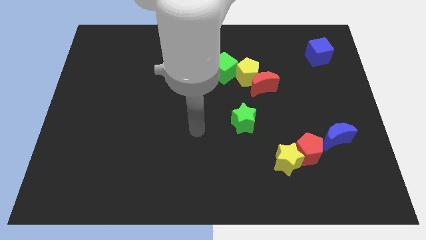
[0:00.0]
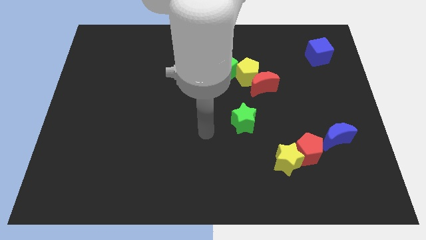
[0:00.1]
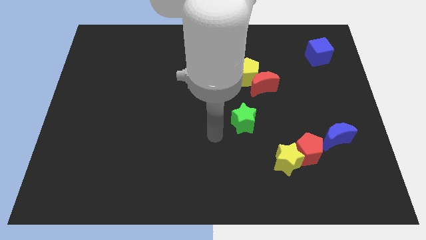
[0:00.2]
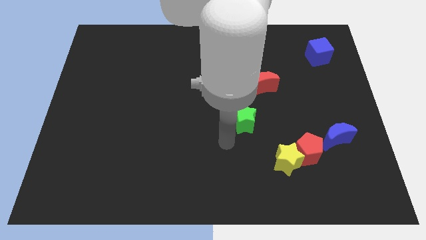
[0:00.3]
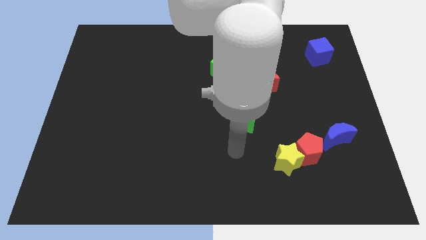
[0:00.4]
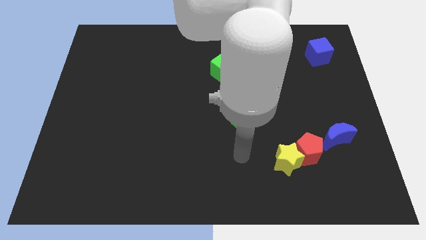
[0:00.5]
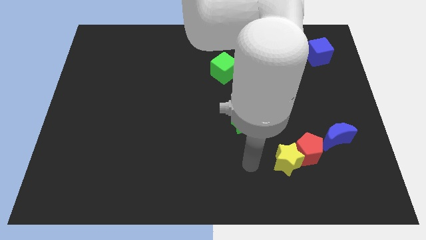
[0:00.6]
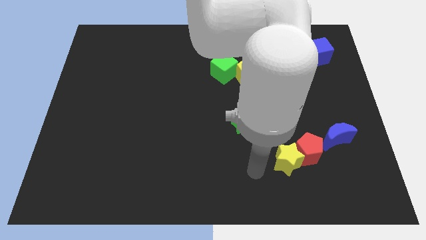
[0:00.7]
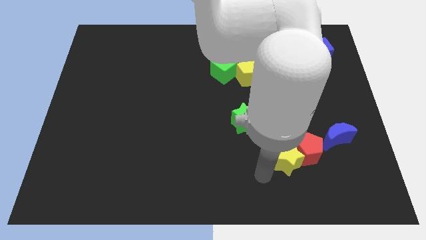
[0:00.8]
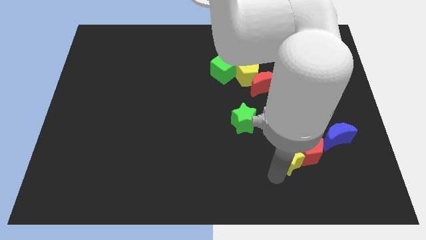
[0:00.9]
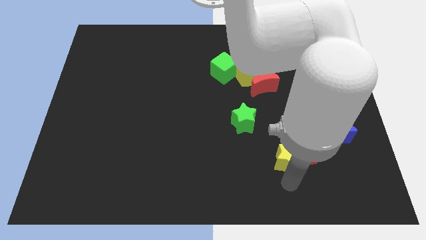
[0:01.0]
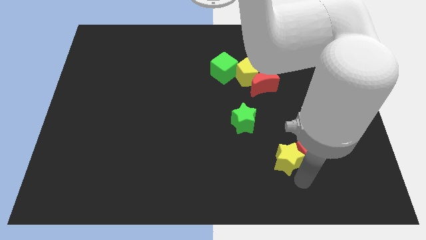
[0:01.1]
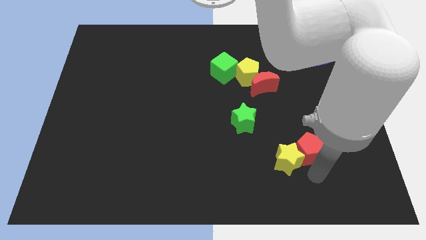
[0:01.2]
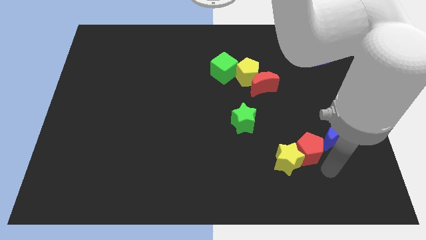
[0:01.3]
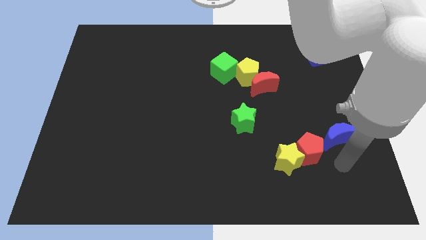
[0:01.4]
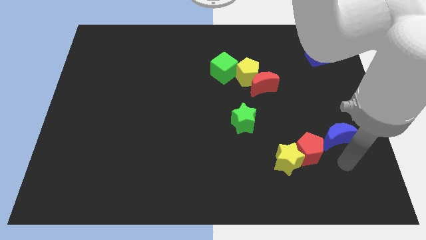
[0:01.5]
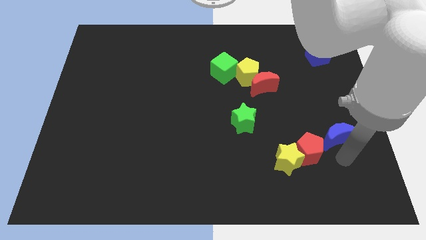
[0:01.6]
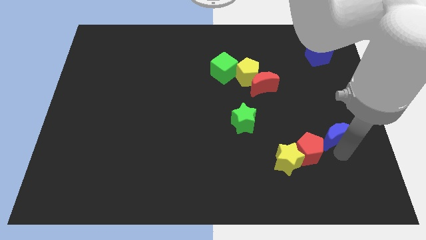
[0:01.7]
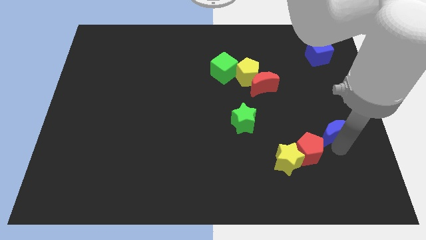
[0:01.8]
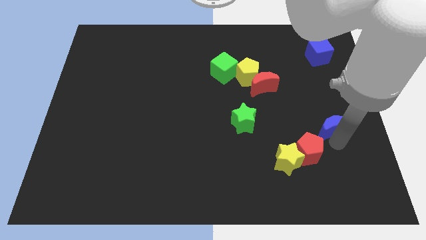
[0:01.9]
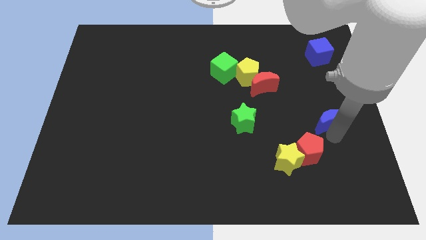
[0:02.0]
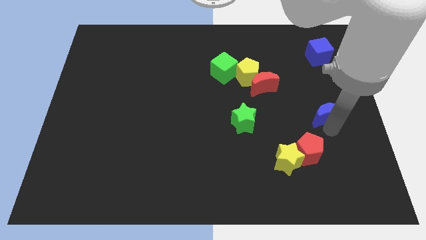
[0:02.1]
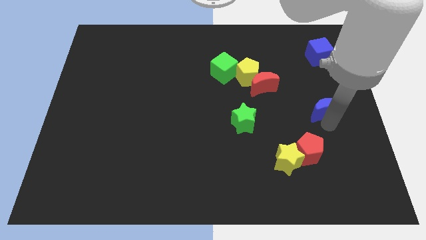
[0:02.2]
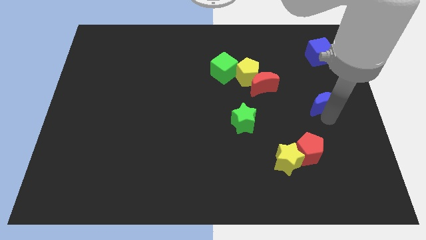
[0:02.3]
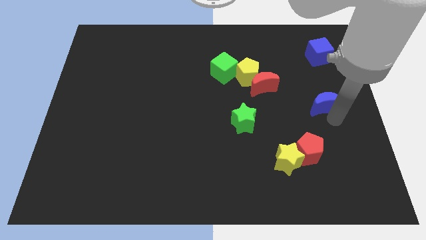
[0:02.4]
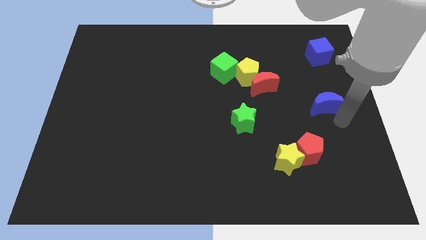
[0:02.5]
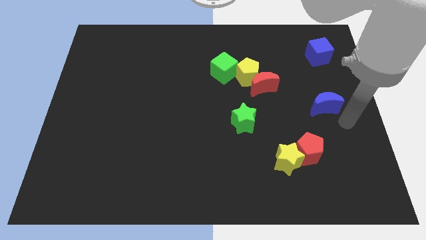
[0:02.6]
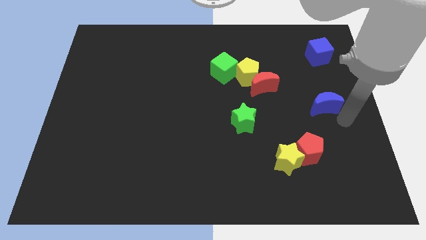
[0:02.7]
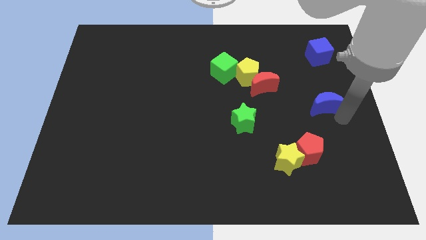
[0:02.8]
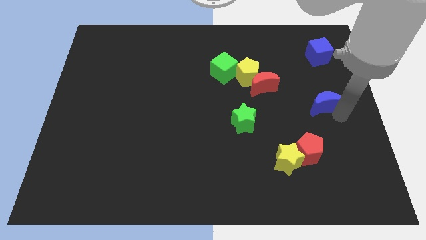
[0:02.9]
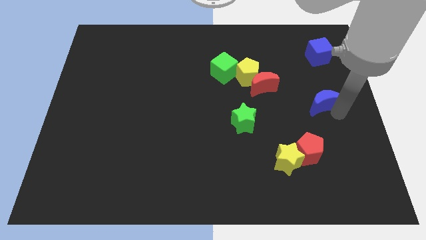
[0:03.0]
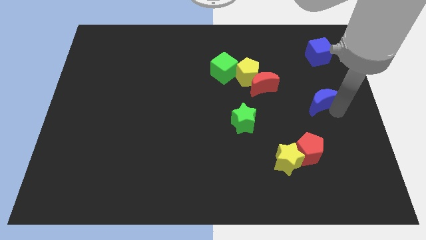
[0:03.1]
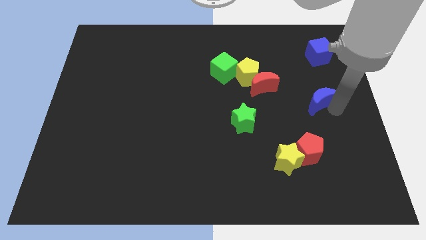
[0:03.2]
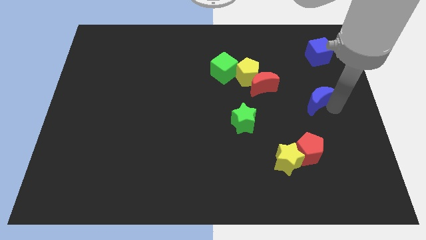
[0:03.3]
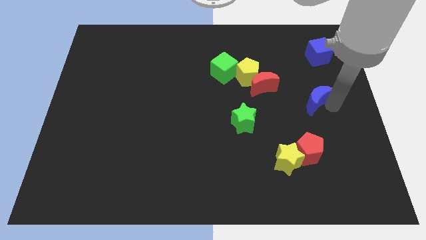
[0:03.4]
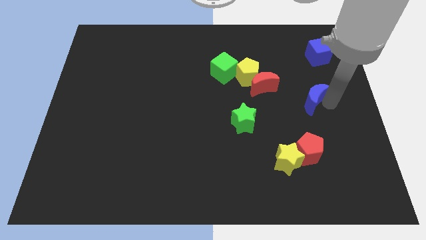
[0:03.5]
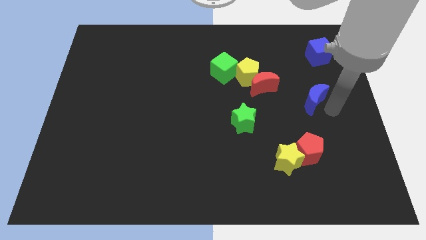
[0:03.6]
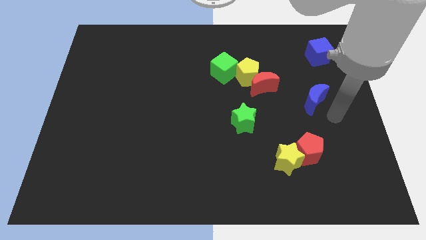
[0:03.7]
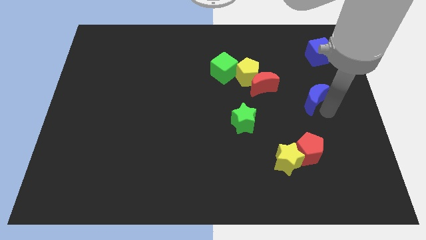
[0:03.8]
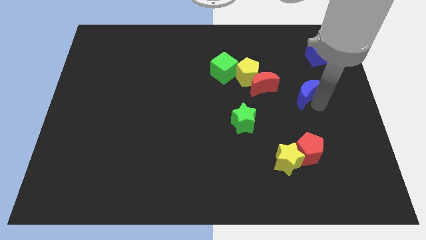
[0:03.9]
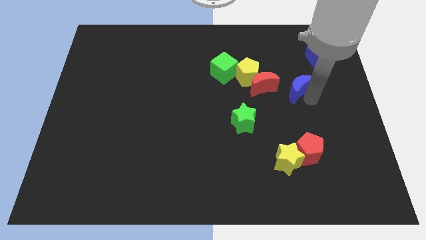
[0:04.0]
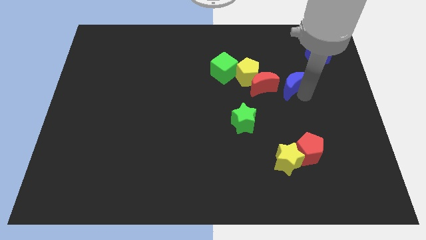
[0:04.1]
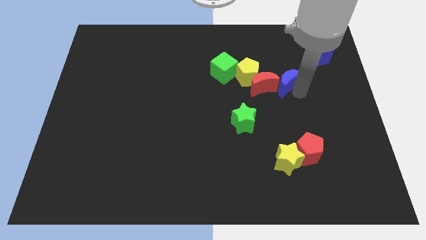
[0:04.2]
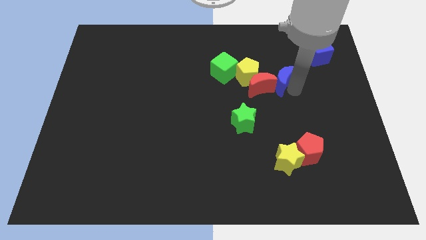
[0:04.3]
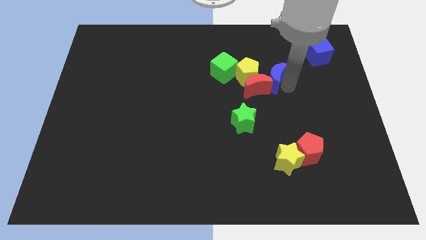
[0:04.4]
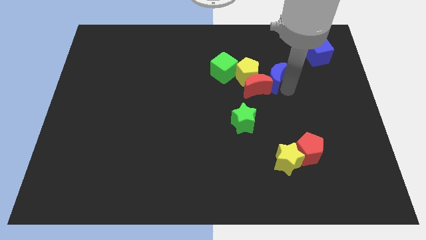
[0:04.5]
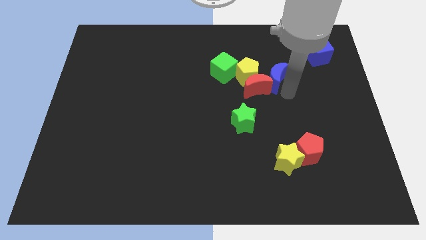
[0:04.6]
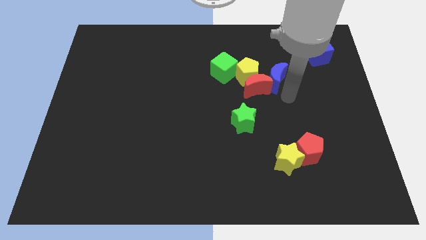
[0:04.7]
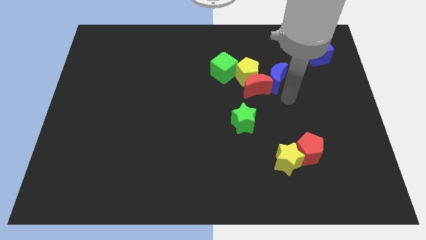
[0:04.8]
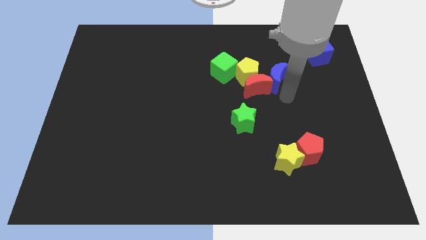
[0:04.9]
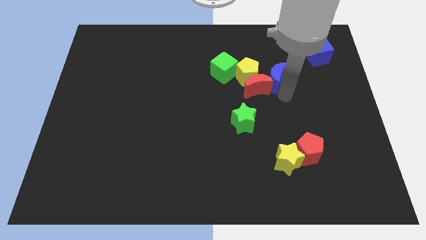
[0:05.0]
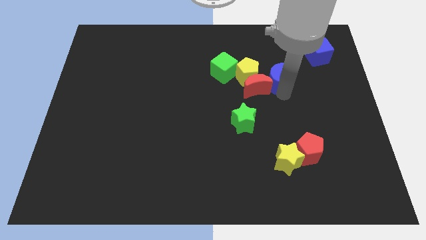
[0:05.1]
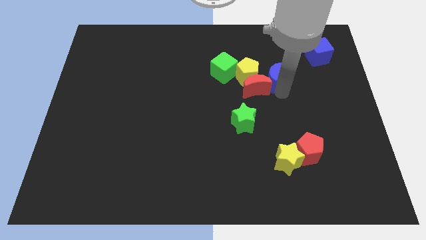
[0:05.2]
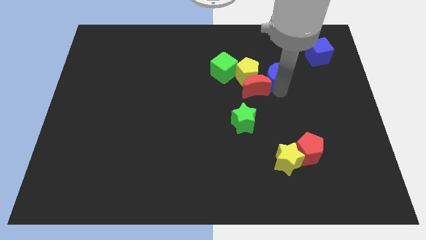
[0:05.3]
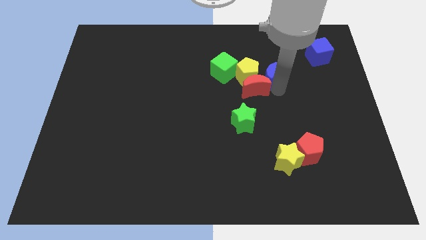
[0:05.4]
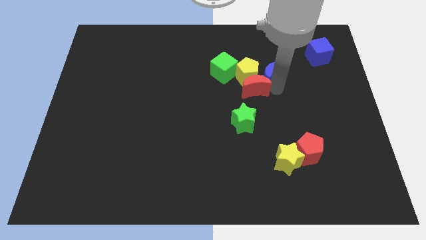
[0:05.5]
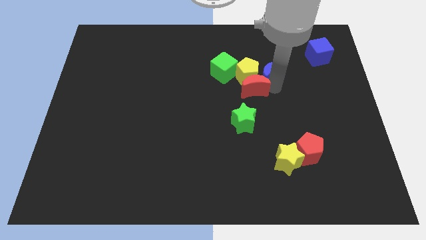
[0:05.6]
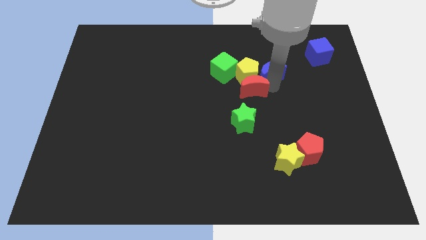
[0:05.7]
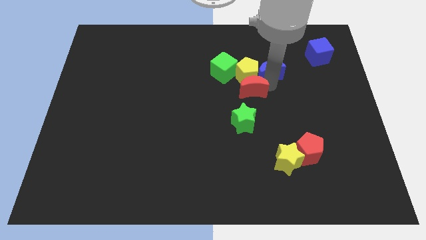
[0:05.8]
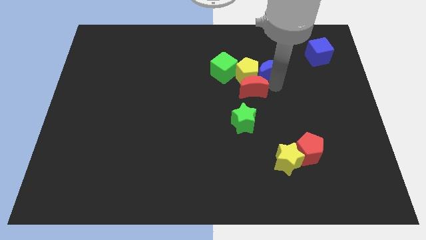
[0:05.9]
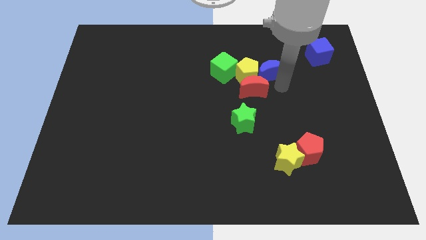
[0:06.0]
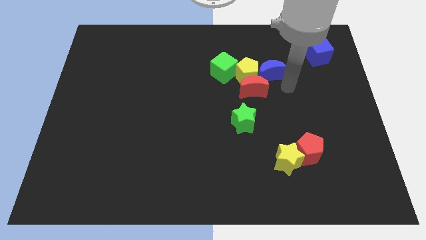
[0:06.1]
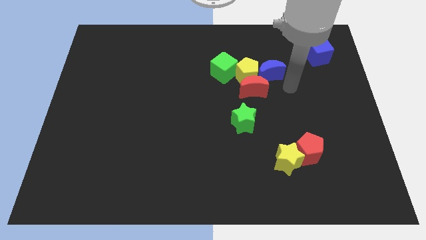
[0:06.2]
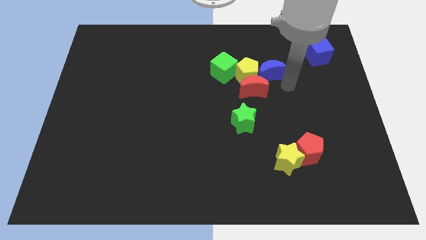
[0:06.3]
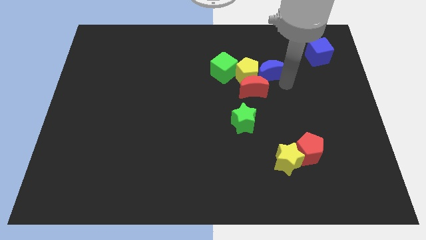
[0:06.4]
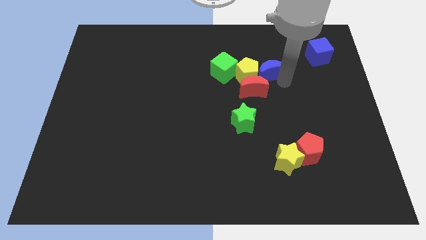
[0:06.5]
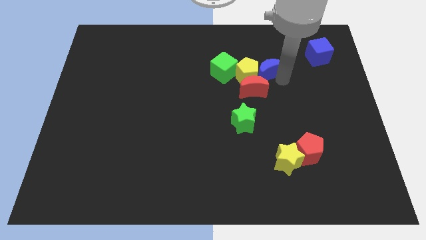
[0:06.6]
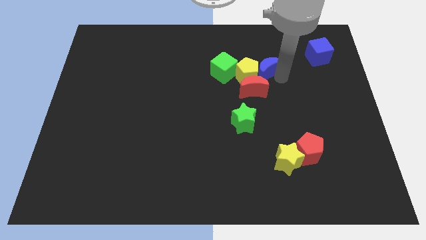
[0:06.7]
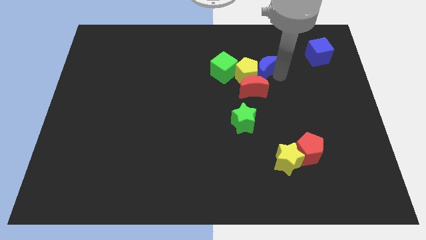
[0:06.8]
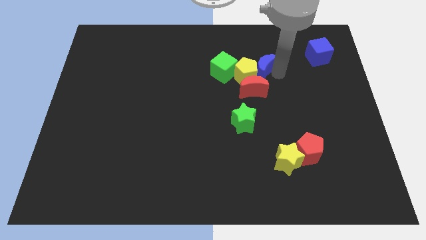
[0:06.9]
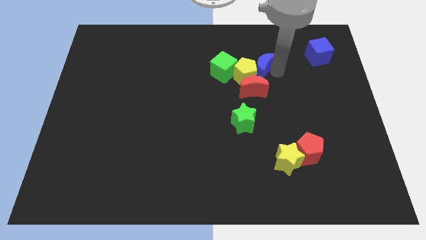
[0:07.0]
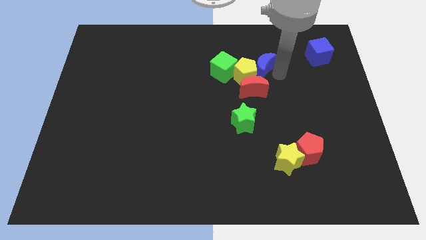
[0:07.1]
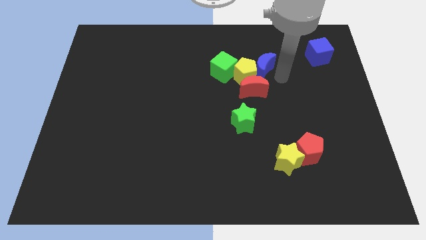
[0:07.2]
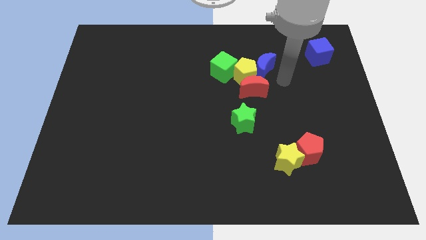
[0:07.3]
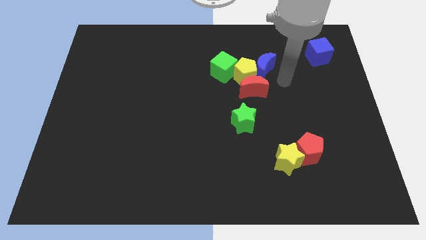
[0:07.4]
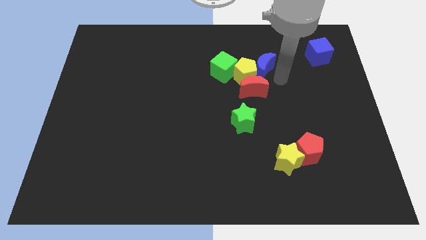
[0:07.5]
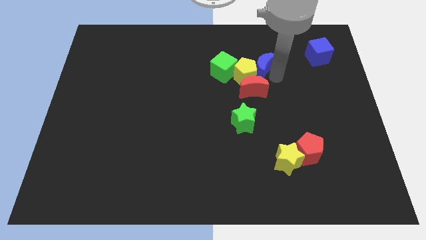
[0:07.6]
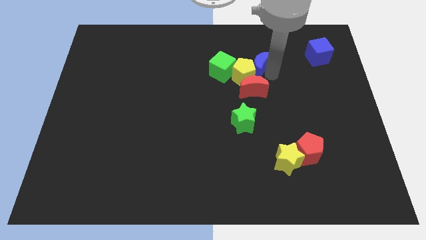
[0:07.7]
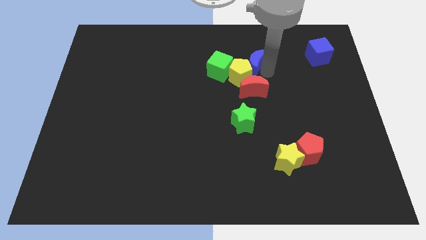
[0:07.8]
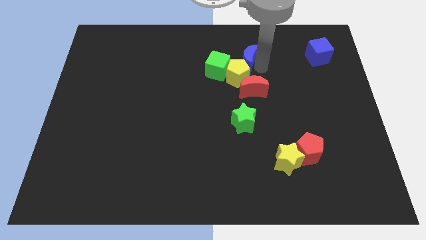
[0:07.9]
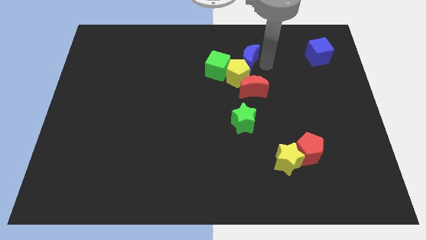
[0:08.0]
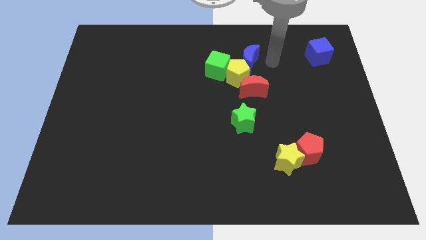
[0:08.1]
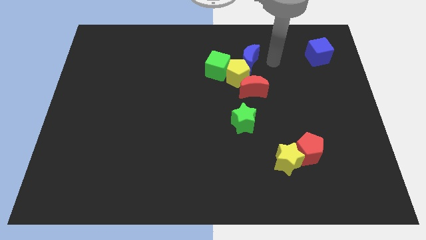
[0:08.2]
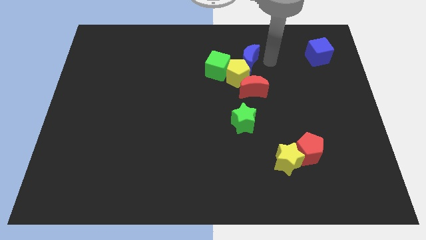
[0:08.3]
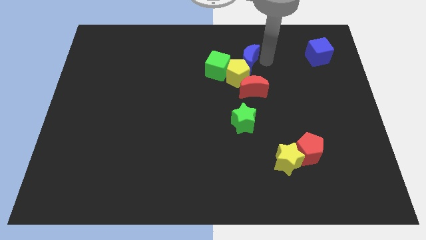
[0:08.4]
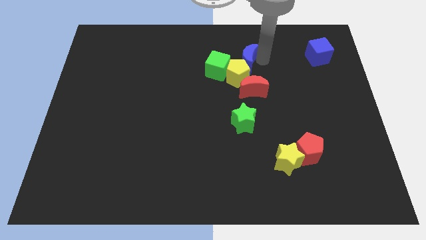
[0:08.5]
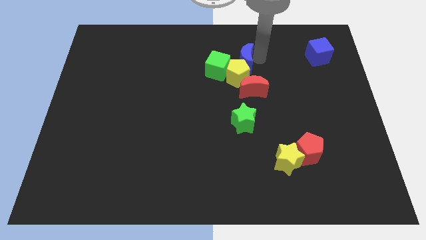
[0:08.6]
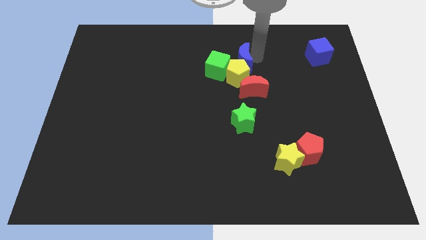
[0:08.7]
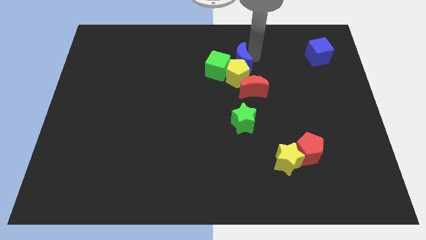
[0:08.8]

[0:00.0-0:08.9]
put the blue moon to the top left side of the yellow pentagon
